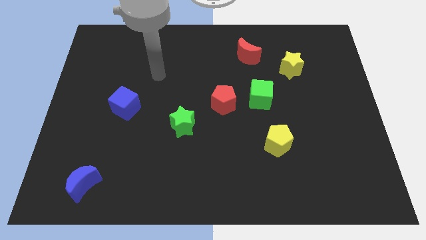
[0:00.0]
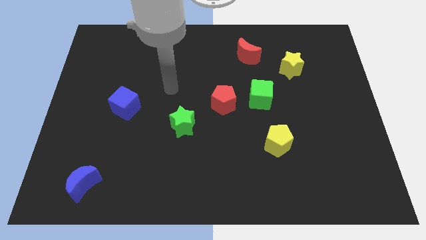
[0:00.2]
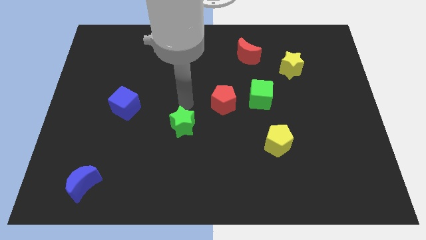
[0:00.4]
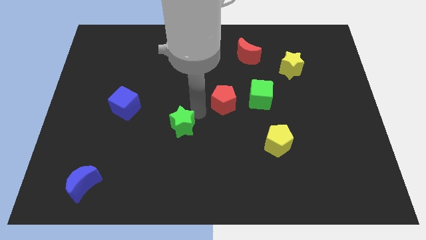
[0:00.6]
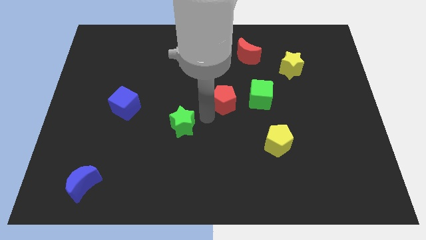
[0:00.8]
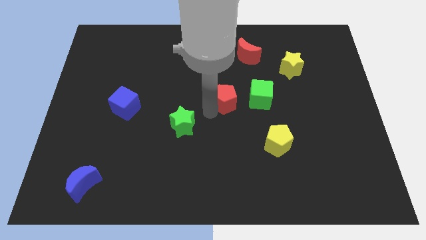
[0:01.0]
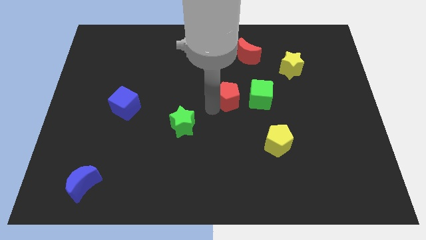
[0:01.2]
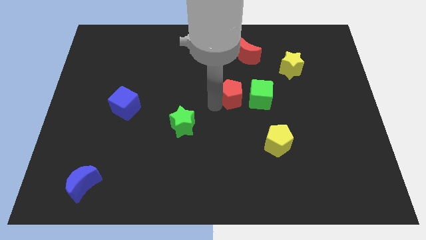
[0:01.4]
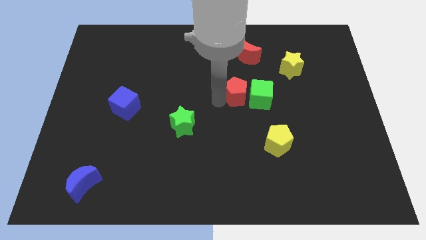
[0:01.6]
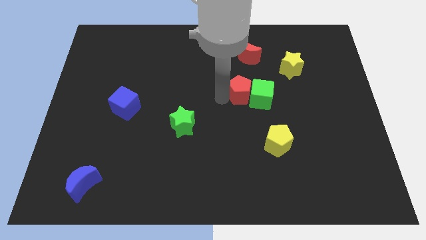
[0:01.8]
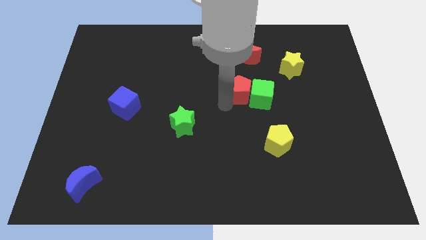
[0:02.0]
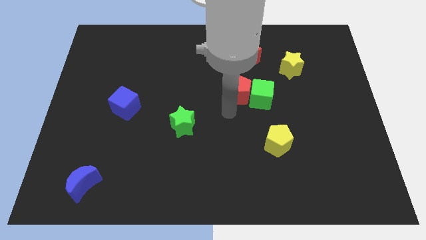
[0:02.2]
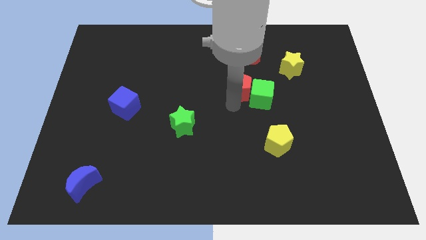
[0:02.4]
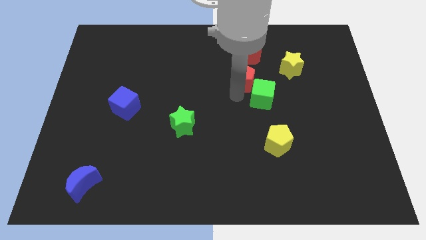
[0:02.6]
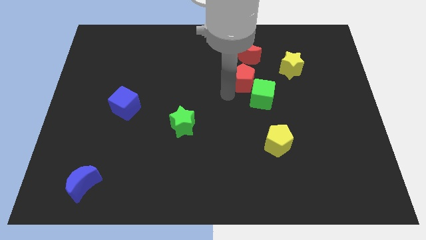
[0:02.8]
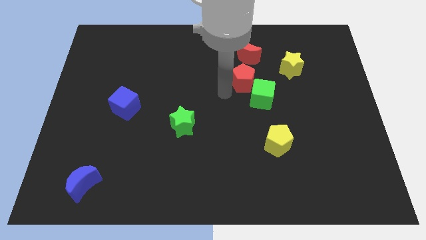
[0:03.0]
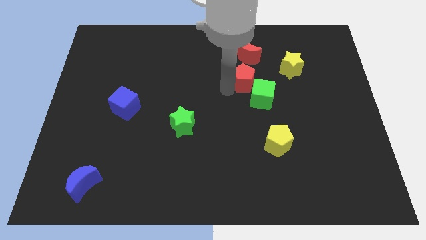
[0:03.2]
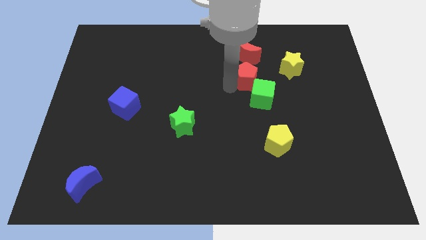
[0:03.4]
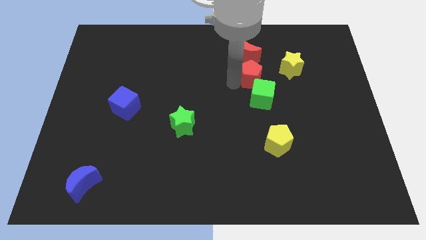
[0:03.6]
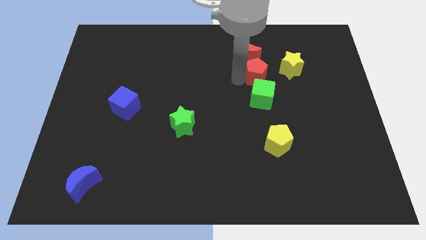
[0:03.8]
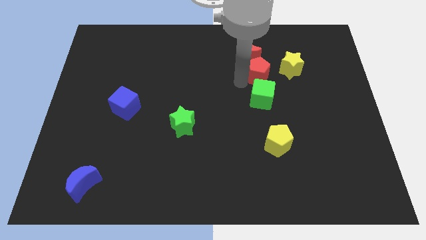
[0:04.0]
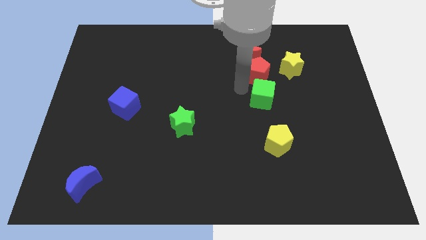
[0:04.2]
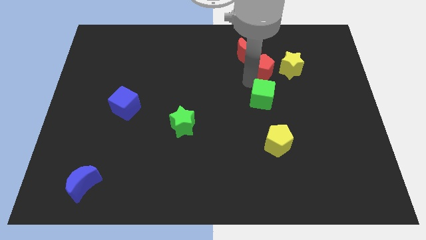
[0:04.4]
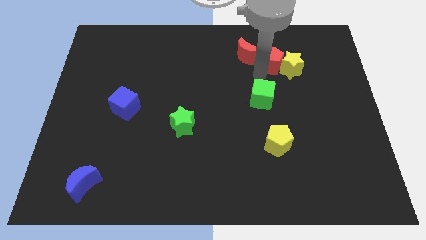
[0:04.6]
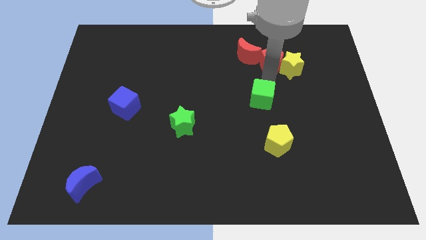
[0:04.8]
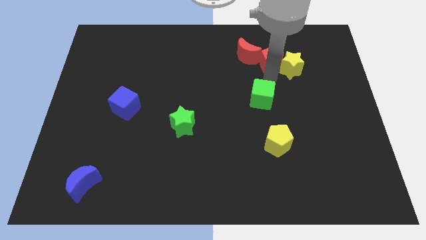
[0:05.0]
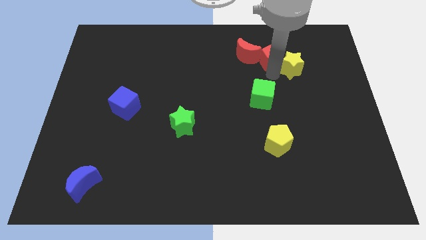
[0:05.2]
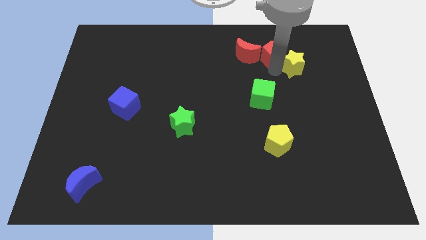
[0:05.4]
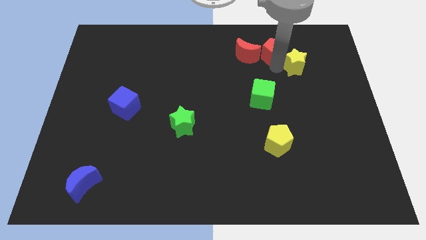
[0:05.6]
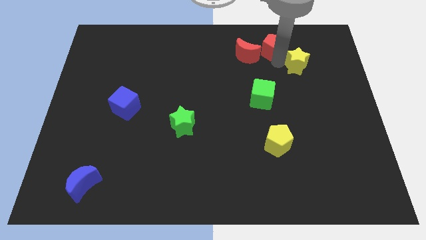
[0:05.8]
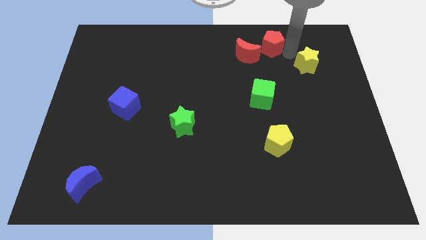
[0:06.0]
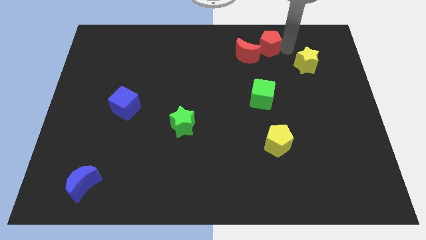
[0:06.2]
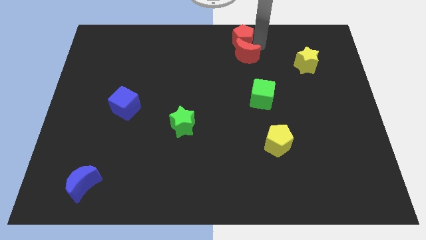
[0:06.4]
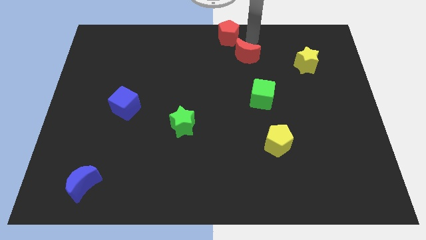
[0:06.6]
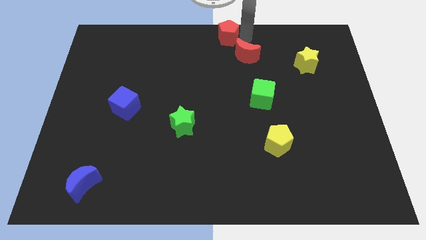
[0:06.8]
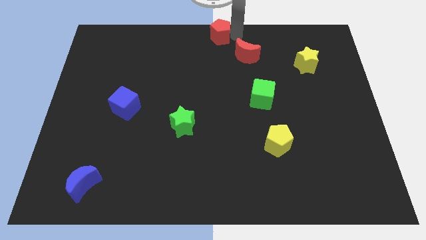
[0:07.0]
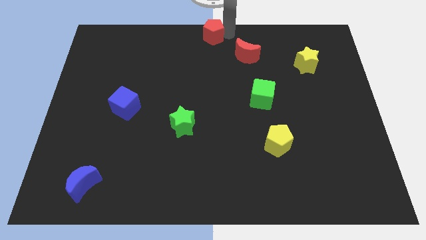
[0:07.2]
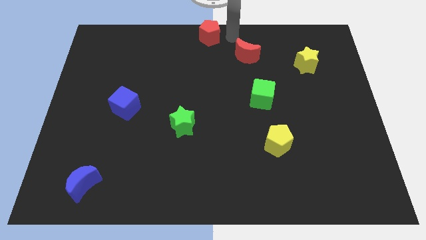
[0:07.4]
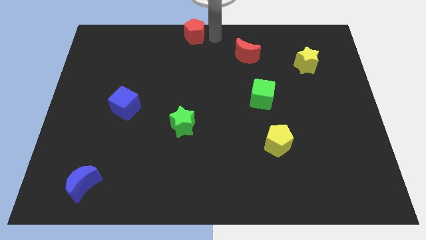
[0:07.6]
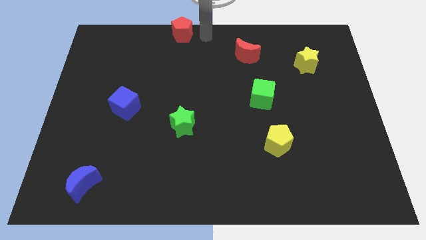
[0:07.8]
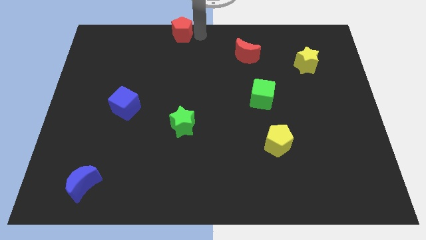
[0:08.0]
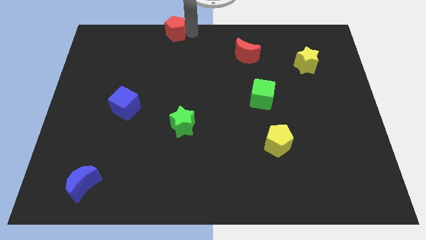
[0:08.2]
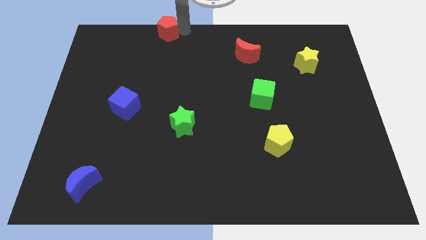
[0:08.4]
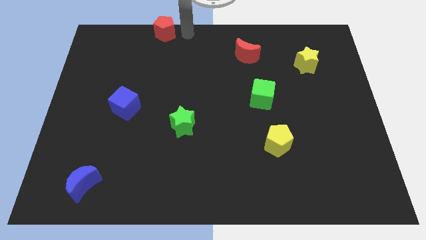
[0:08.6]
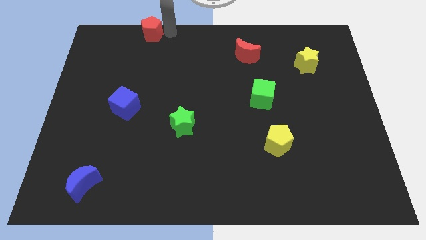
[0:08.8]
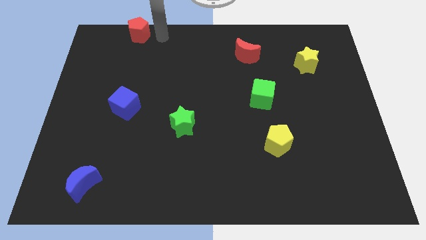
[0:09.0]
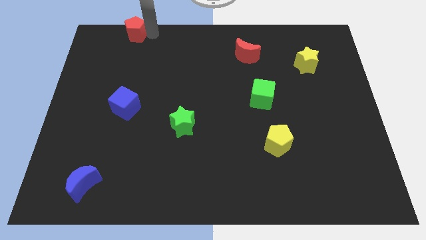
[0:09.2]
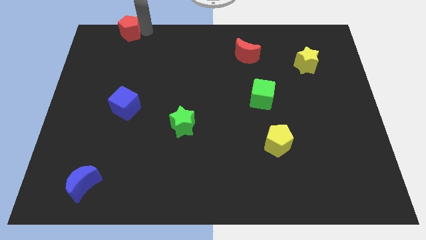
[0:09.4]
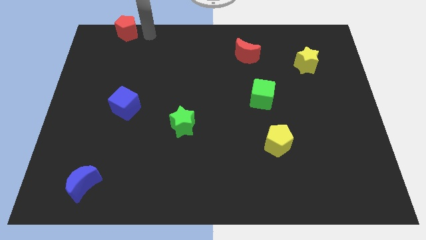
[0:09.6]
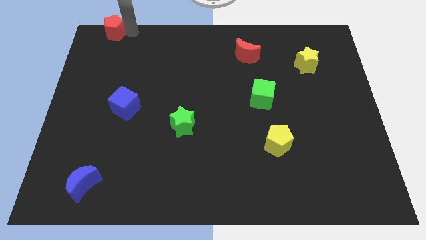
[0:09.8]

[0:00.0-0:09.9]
push the red pentagon to the top left

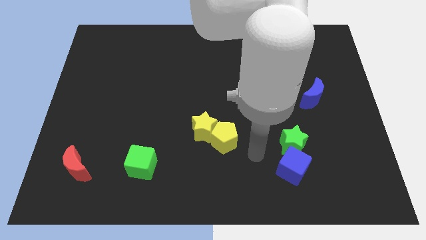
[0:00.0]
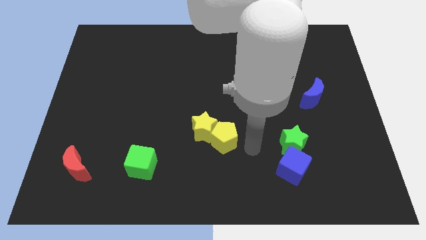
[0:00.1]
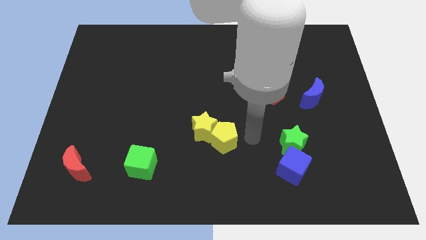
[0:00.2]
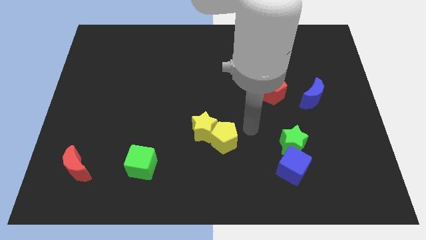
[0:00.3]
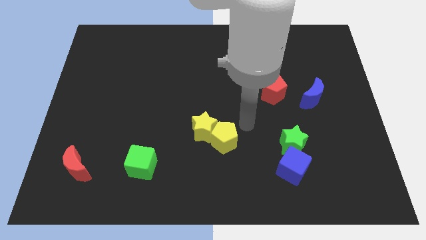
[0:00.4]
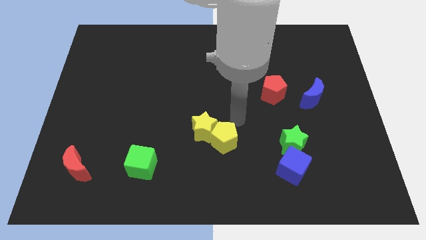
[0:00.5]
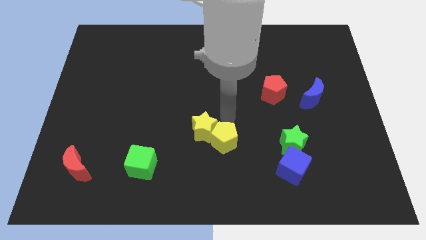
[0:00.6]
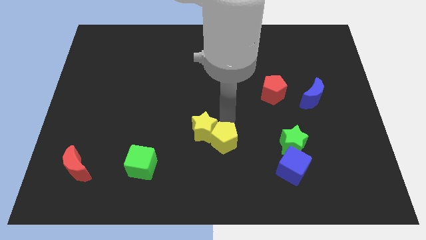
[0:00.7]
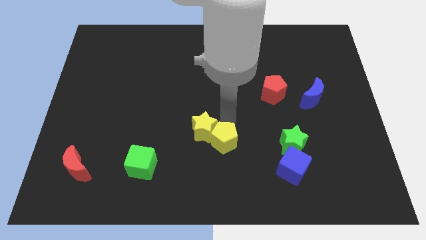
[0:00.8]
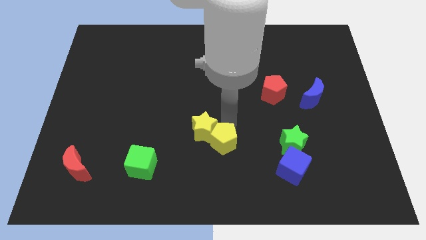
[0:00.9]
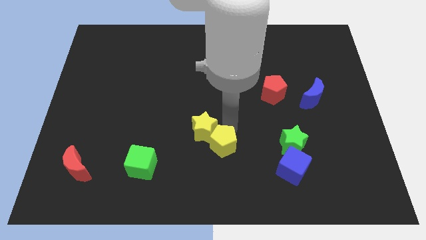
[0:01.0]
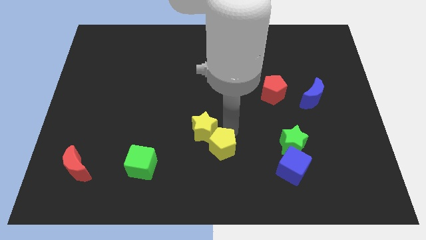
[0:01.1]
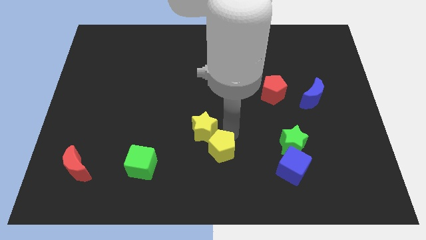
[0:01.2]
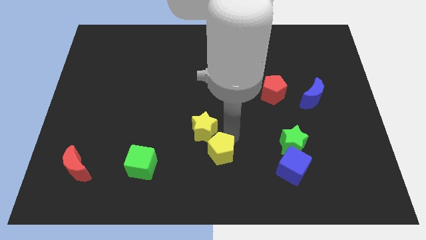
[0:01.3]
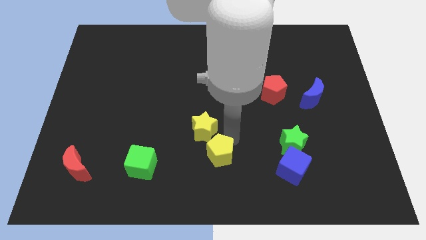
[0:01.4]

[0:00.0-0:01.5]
move the yellow pentagon to the bottom

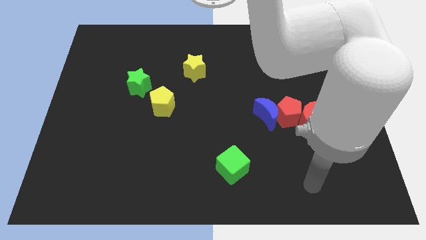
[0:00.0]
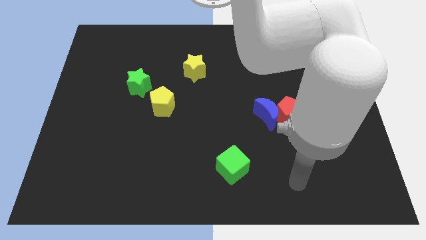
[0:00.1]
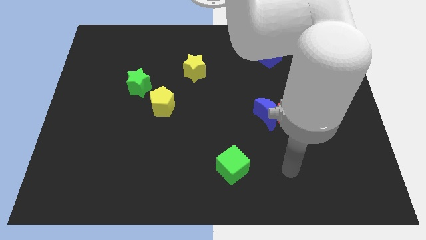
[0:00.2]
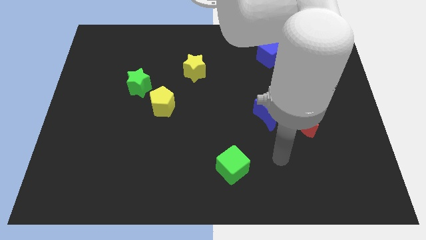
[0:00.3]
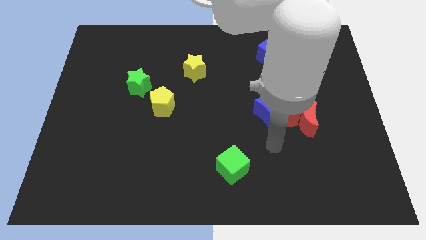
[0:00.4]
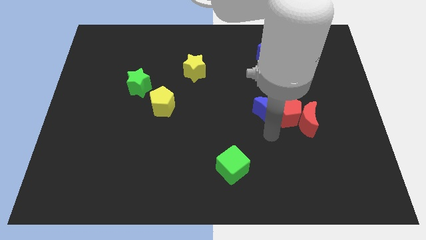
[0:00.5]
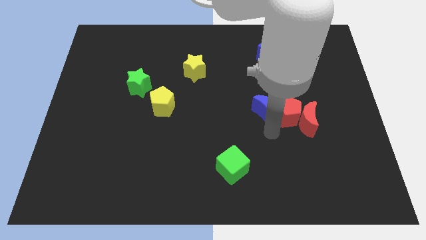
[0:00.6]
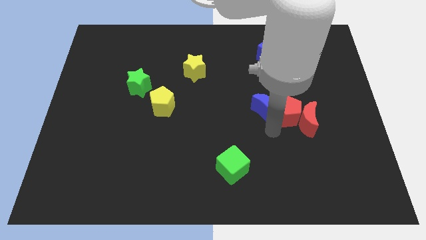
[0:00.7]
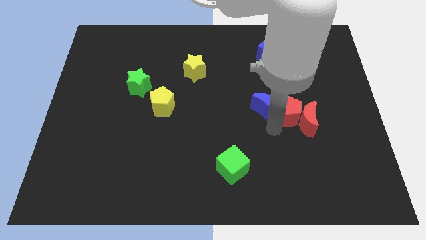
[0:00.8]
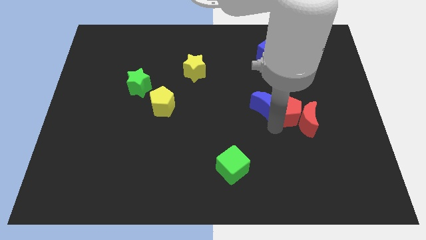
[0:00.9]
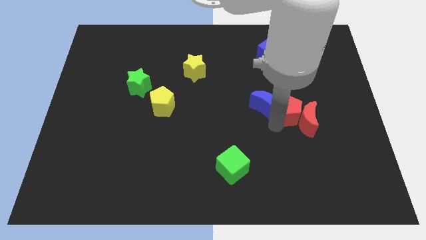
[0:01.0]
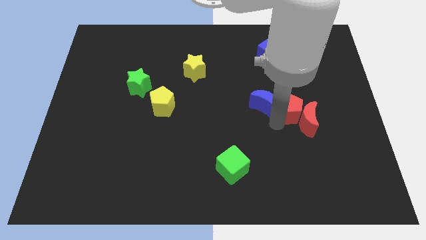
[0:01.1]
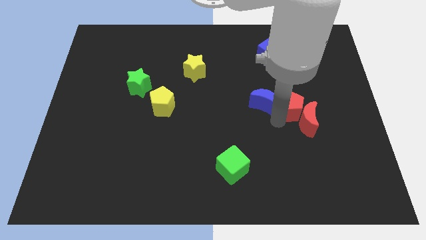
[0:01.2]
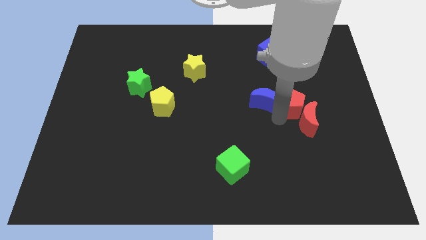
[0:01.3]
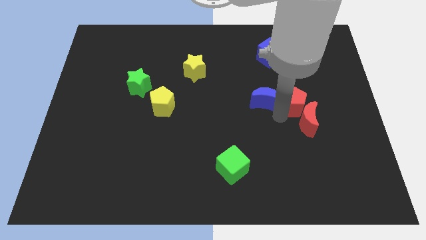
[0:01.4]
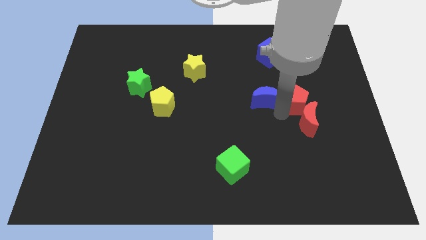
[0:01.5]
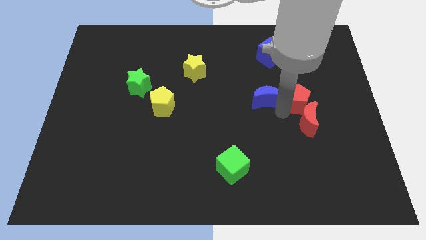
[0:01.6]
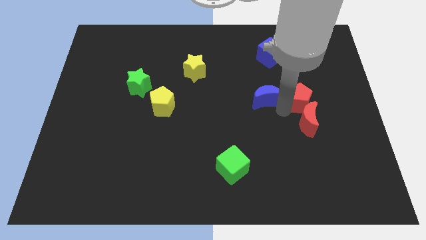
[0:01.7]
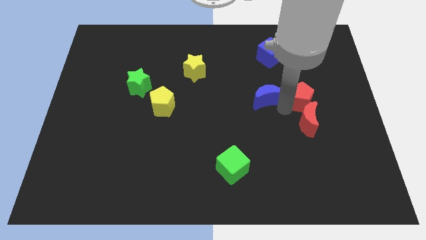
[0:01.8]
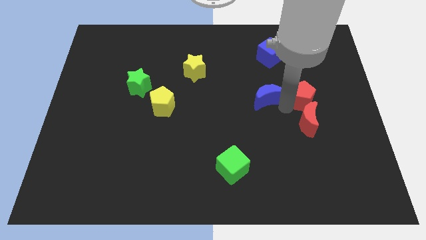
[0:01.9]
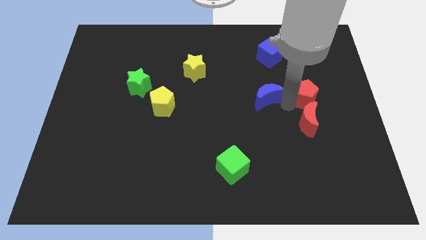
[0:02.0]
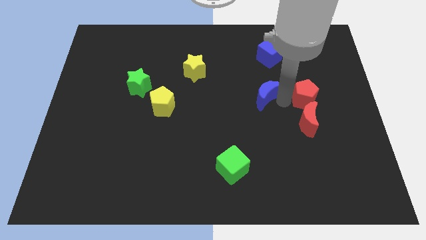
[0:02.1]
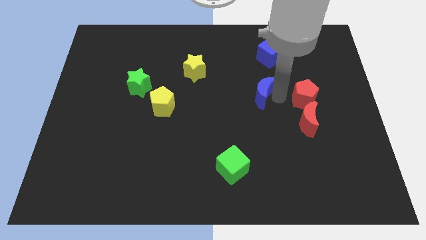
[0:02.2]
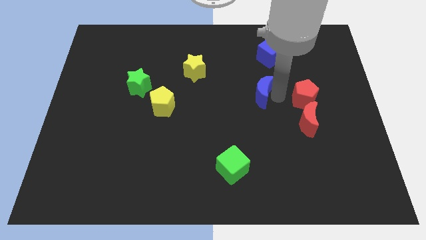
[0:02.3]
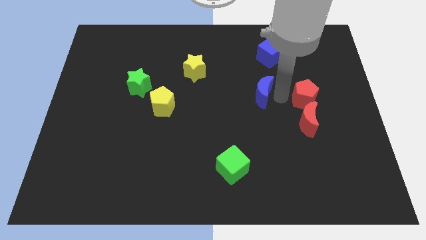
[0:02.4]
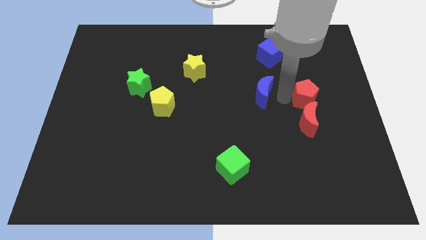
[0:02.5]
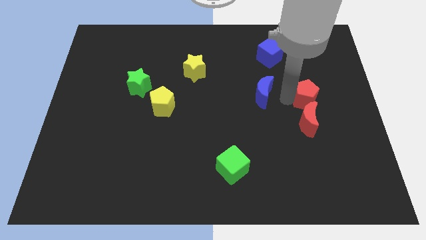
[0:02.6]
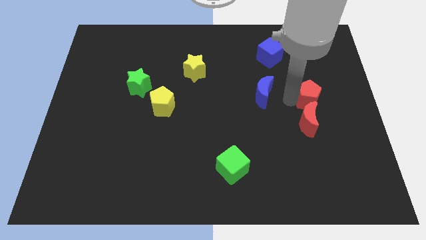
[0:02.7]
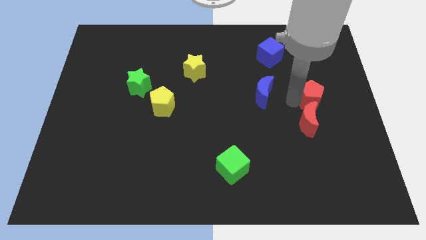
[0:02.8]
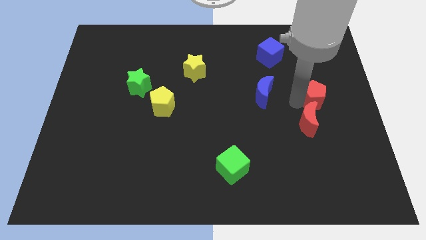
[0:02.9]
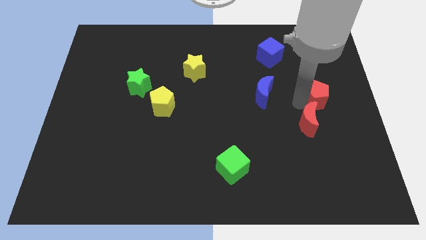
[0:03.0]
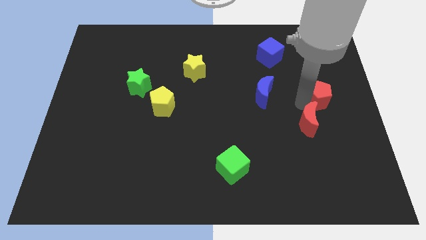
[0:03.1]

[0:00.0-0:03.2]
put the red pentagon to the center right
